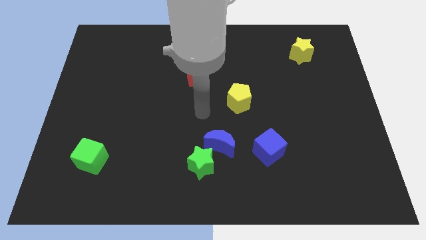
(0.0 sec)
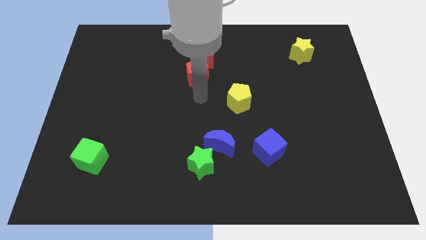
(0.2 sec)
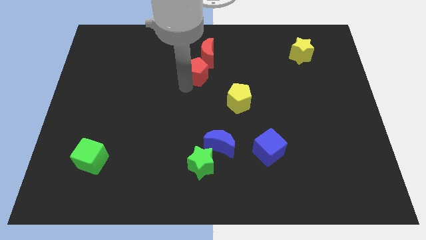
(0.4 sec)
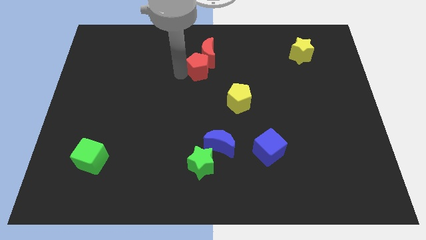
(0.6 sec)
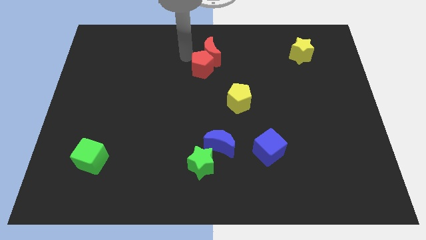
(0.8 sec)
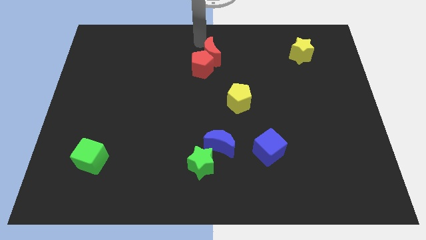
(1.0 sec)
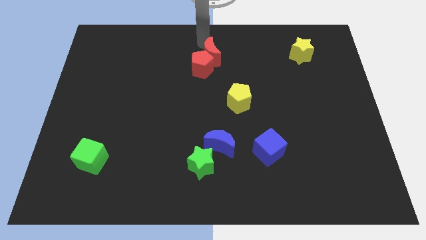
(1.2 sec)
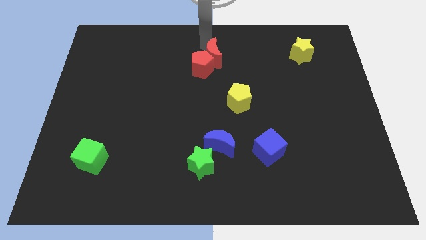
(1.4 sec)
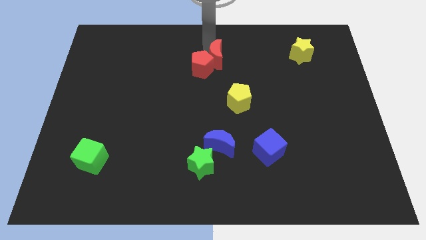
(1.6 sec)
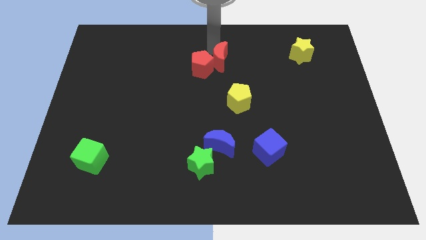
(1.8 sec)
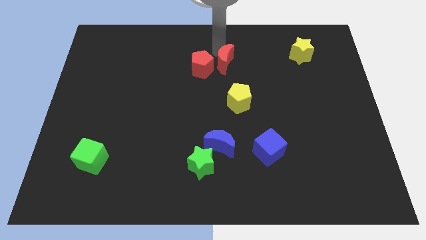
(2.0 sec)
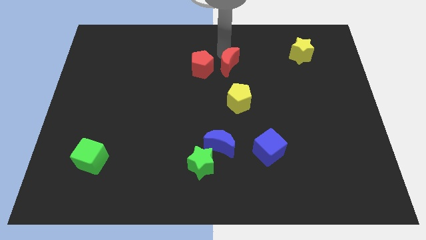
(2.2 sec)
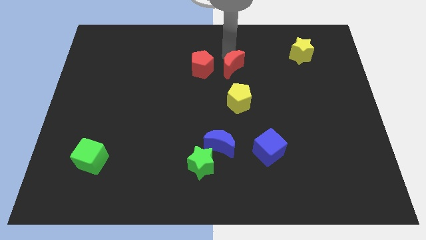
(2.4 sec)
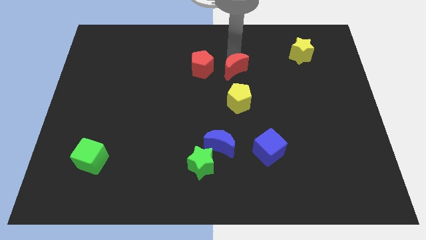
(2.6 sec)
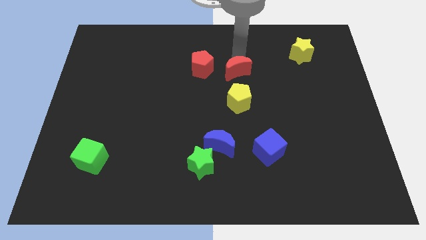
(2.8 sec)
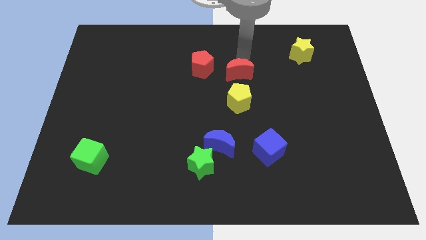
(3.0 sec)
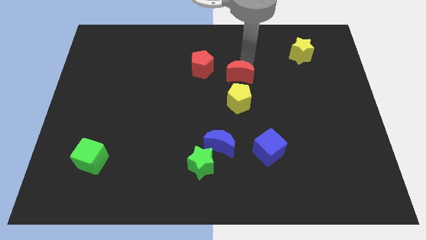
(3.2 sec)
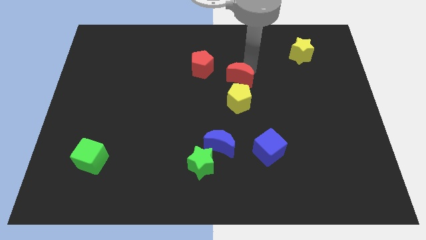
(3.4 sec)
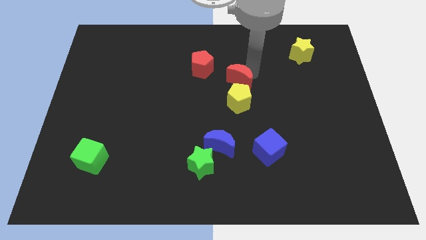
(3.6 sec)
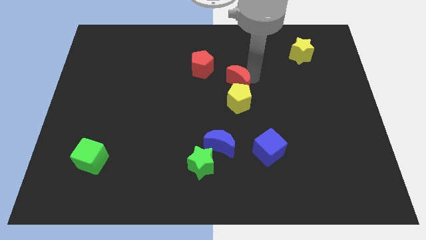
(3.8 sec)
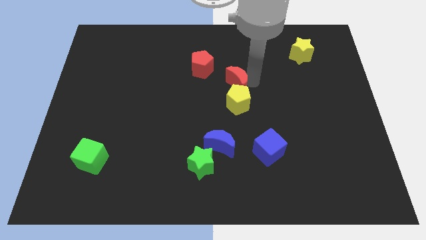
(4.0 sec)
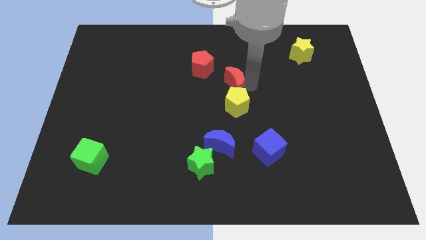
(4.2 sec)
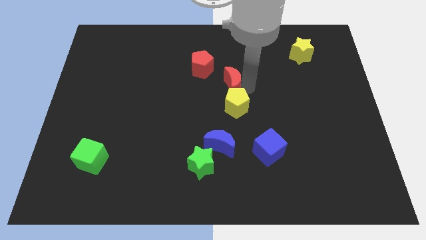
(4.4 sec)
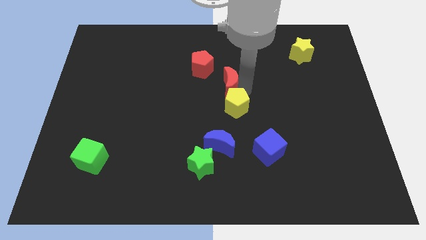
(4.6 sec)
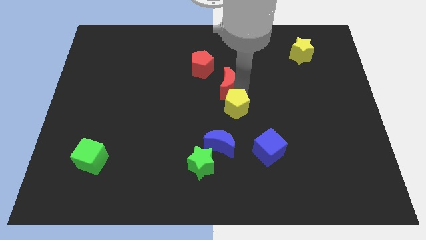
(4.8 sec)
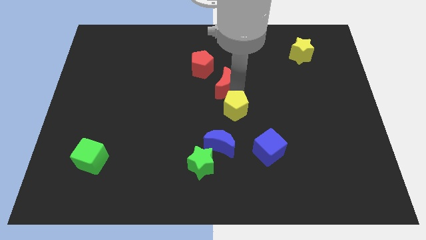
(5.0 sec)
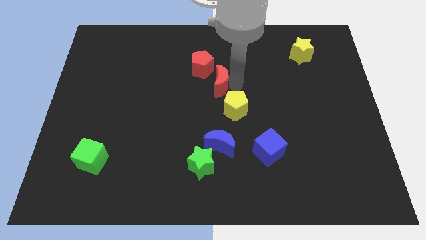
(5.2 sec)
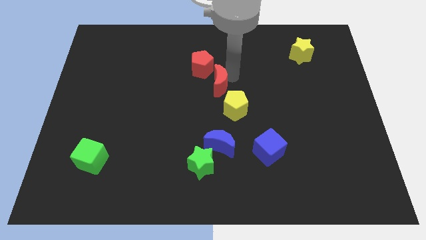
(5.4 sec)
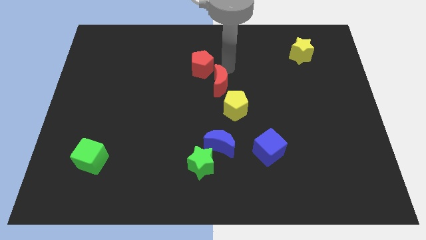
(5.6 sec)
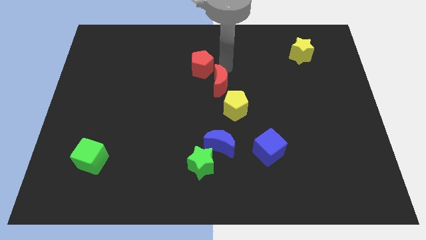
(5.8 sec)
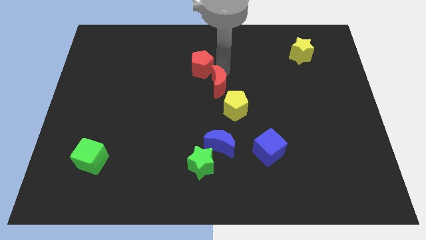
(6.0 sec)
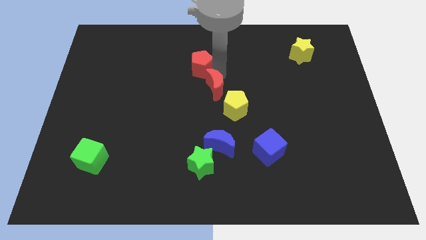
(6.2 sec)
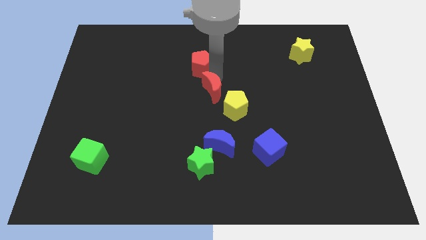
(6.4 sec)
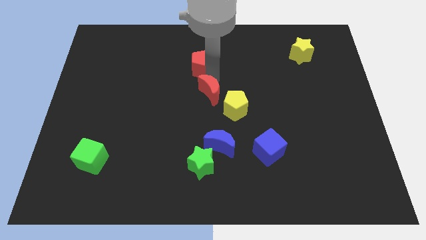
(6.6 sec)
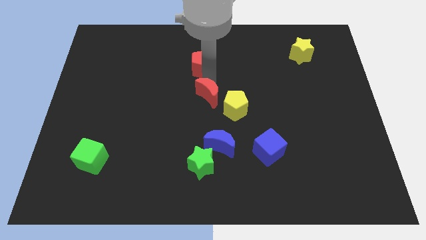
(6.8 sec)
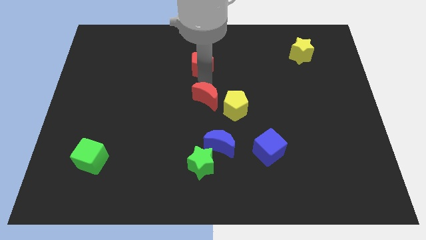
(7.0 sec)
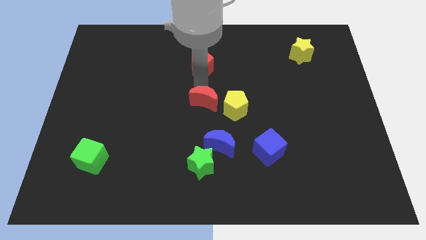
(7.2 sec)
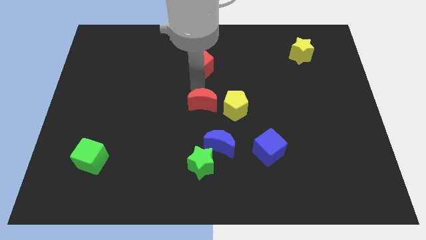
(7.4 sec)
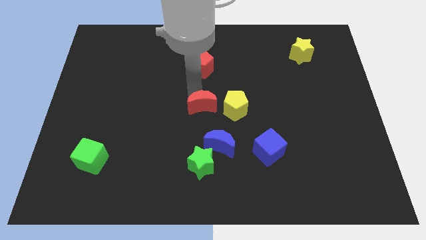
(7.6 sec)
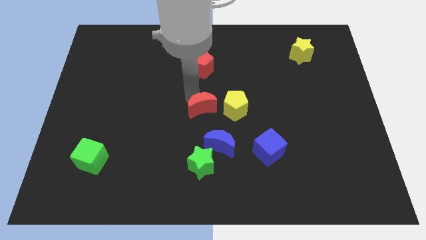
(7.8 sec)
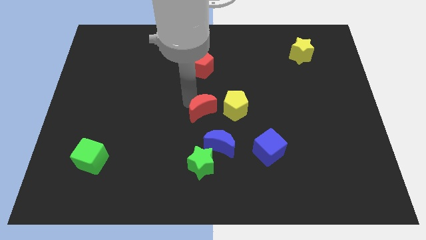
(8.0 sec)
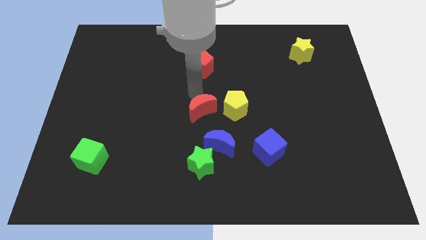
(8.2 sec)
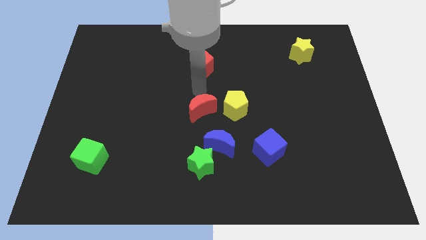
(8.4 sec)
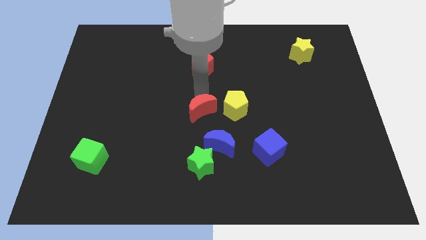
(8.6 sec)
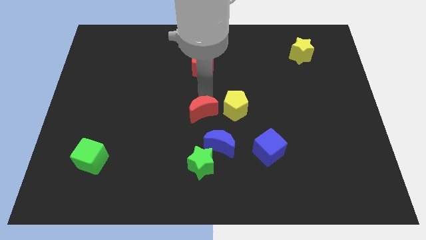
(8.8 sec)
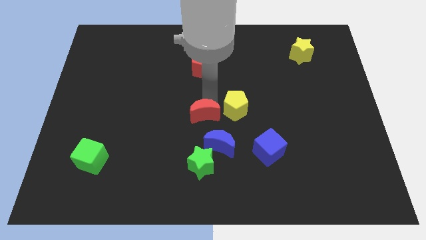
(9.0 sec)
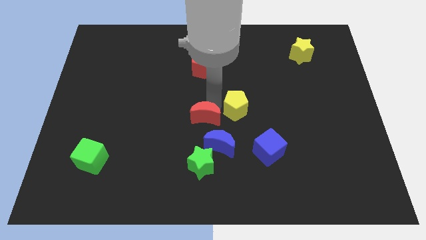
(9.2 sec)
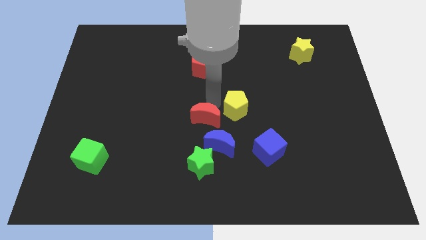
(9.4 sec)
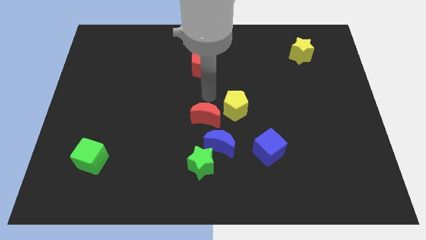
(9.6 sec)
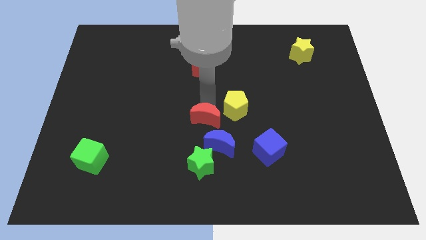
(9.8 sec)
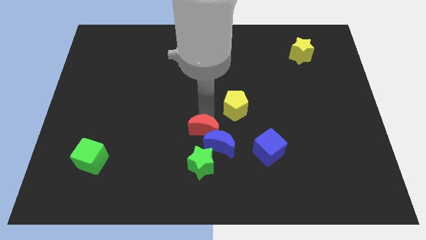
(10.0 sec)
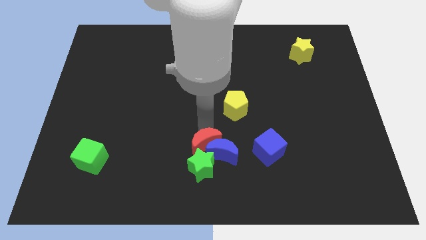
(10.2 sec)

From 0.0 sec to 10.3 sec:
put the red moon next to the green star

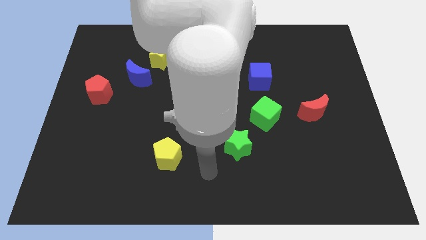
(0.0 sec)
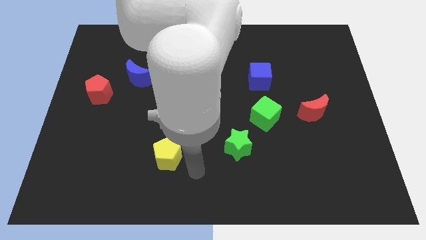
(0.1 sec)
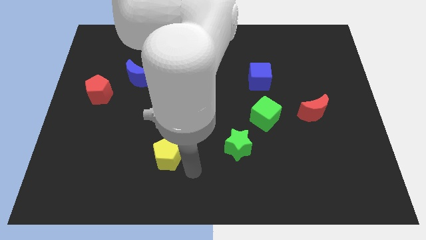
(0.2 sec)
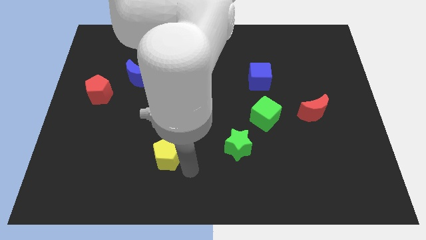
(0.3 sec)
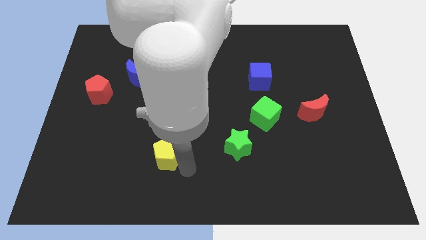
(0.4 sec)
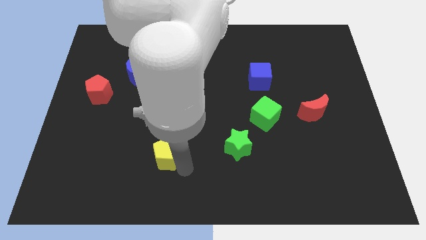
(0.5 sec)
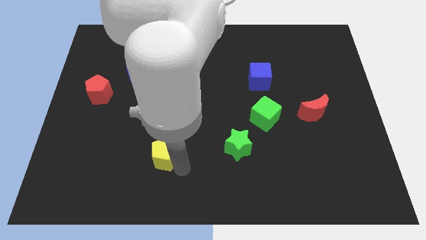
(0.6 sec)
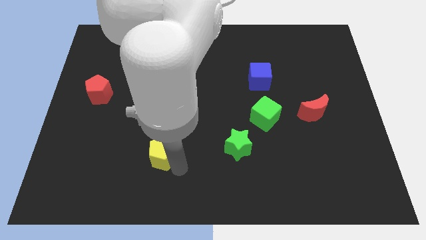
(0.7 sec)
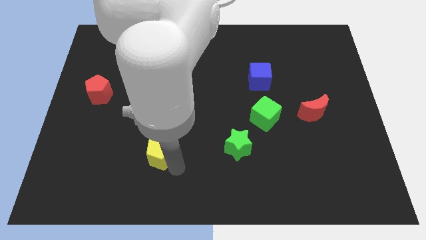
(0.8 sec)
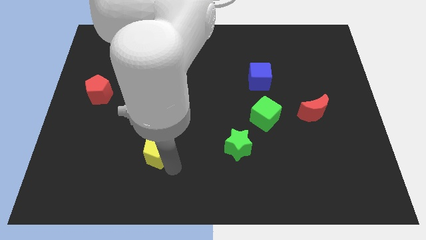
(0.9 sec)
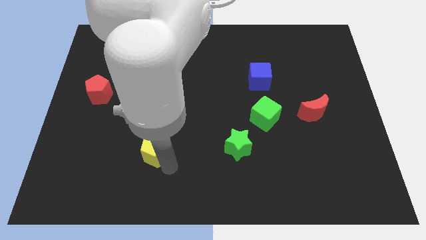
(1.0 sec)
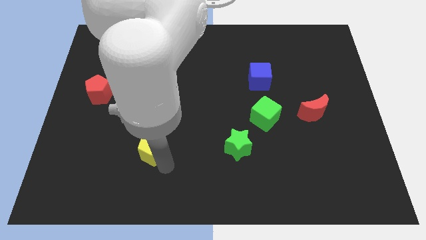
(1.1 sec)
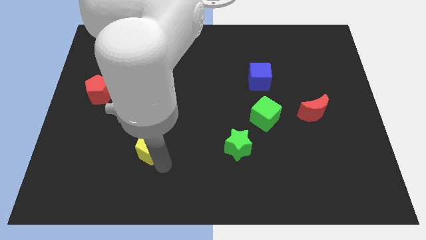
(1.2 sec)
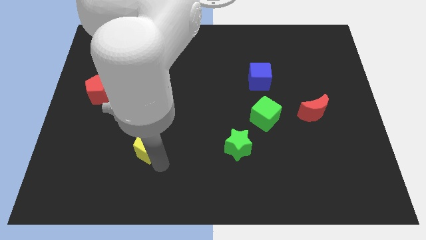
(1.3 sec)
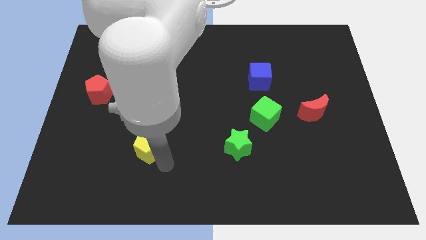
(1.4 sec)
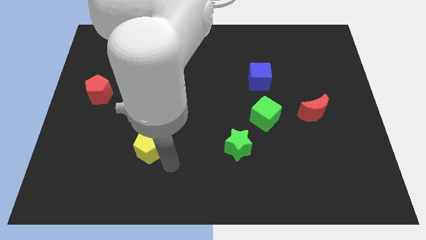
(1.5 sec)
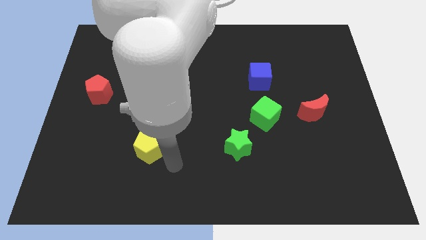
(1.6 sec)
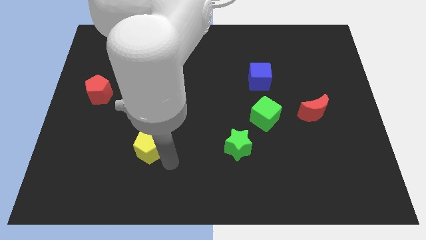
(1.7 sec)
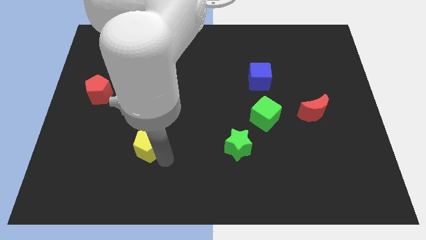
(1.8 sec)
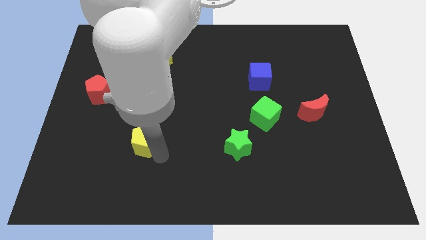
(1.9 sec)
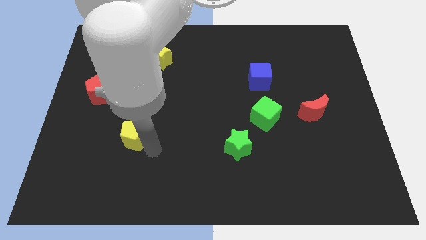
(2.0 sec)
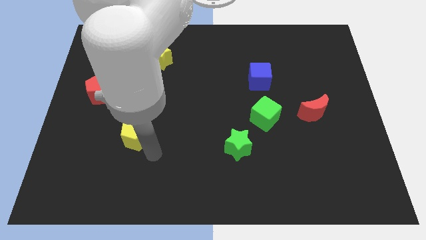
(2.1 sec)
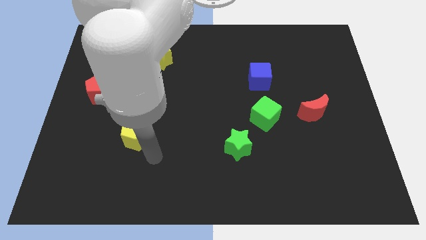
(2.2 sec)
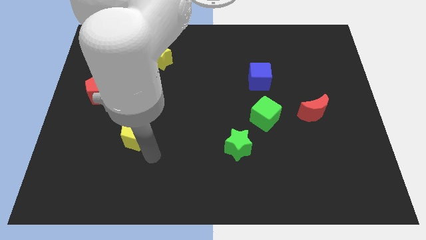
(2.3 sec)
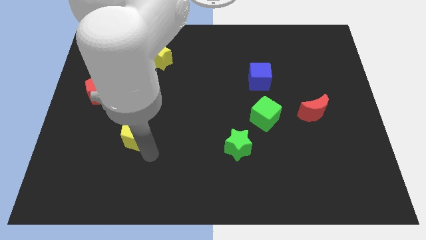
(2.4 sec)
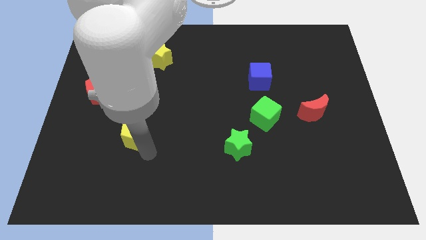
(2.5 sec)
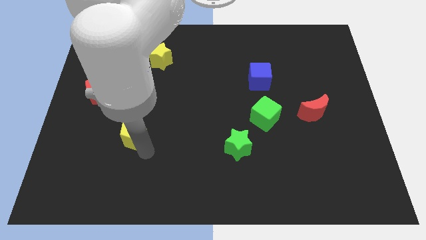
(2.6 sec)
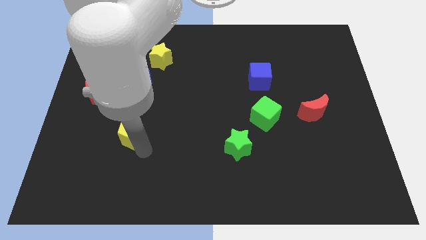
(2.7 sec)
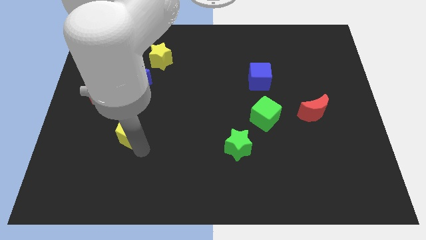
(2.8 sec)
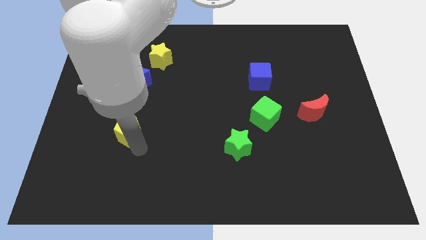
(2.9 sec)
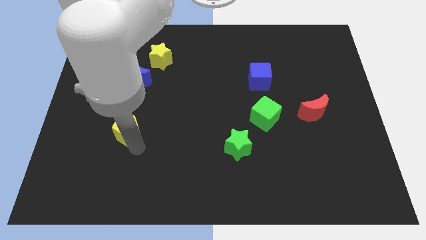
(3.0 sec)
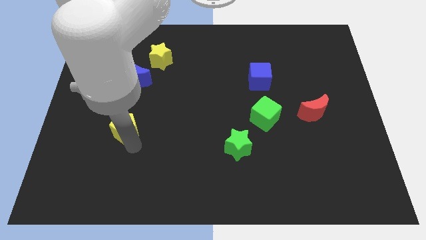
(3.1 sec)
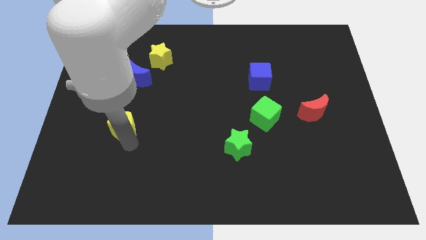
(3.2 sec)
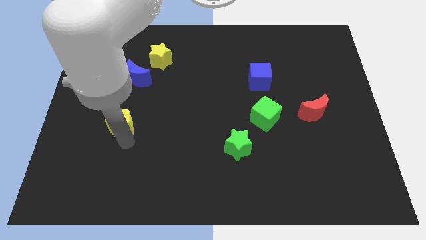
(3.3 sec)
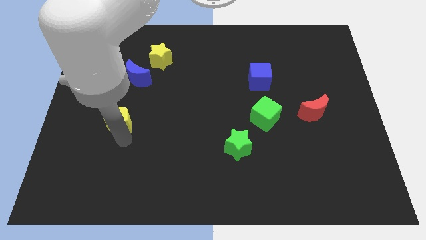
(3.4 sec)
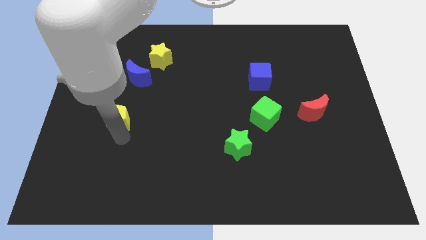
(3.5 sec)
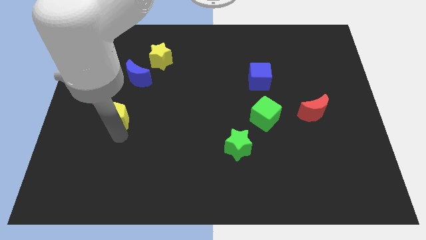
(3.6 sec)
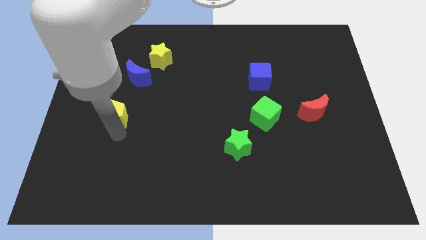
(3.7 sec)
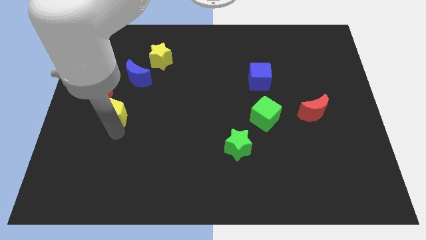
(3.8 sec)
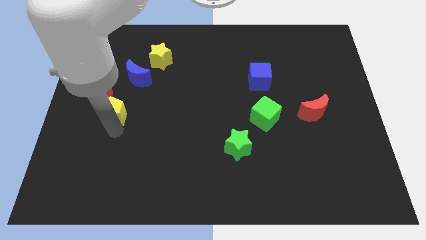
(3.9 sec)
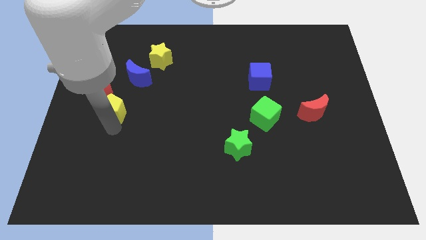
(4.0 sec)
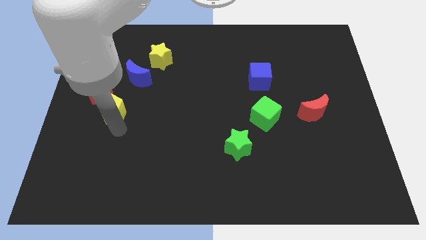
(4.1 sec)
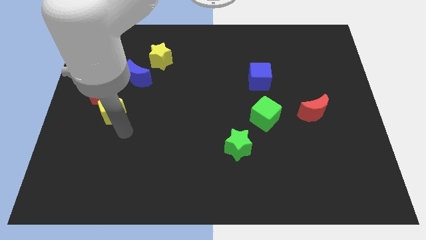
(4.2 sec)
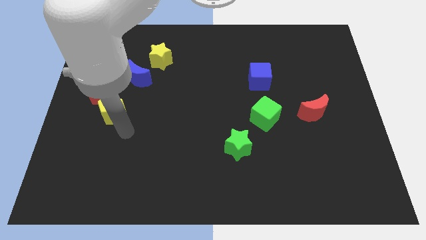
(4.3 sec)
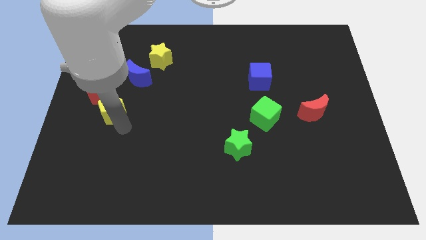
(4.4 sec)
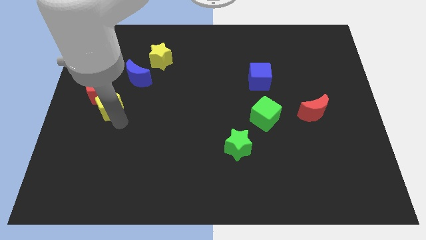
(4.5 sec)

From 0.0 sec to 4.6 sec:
push the yellow pentagon next to the red pentagon
